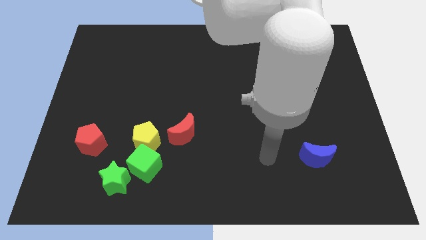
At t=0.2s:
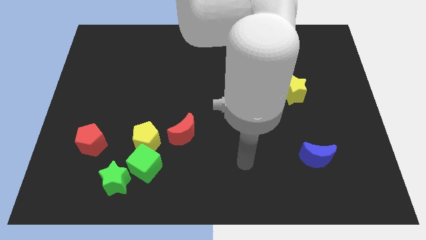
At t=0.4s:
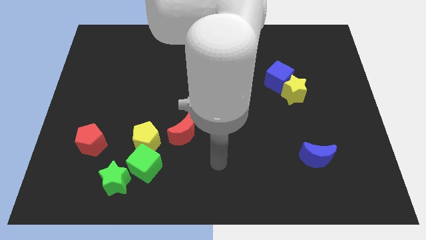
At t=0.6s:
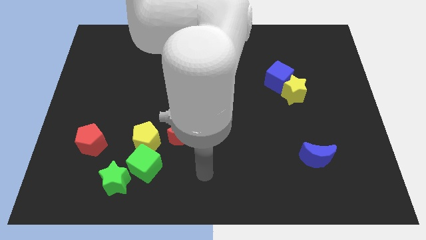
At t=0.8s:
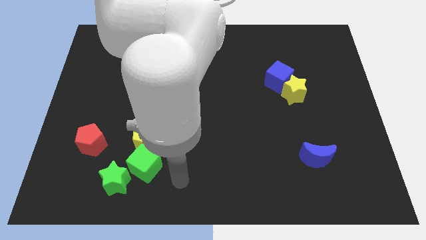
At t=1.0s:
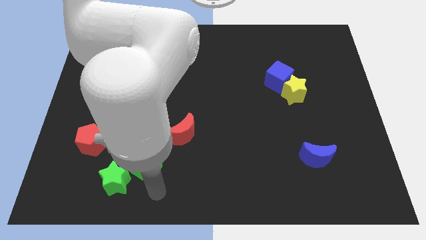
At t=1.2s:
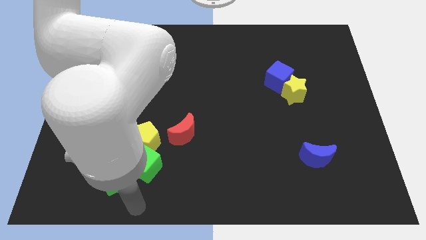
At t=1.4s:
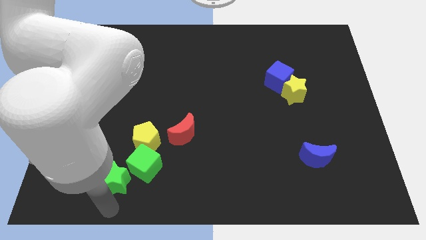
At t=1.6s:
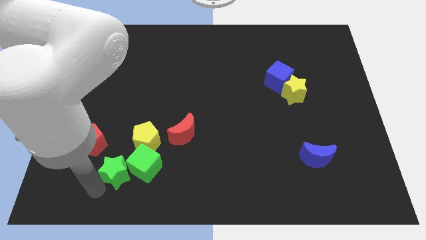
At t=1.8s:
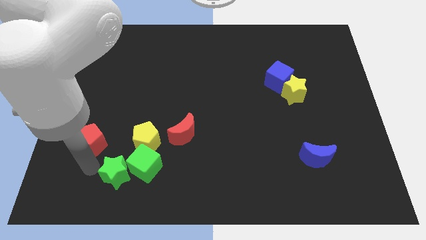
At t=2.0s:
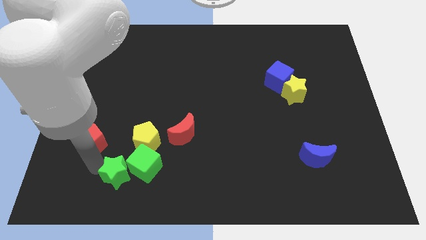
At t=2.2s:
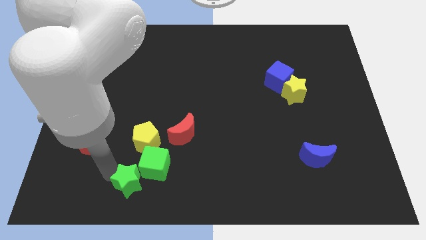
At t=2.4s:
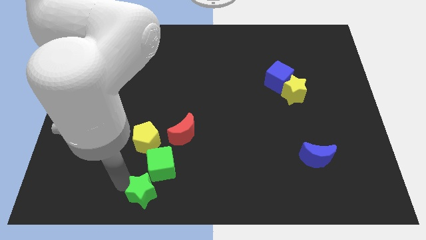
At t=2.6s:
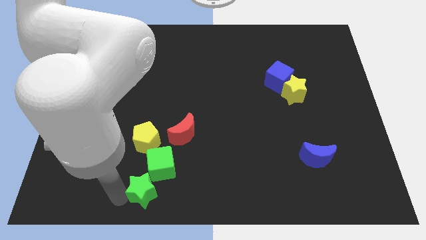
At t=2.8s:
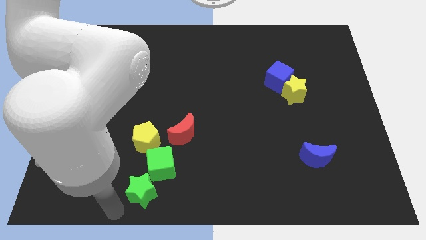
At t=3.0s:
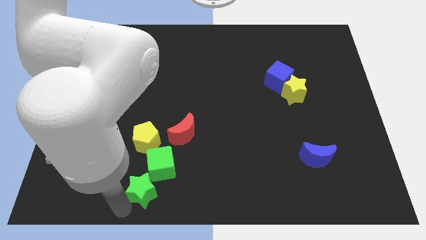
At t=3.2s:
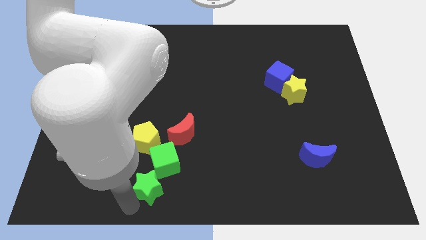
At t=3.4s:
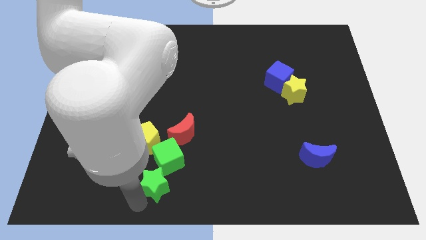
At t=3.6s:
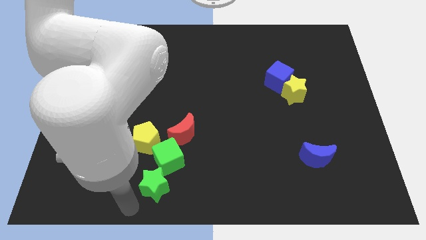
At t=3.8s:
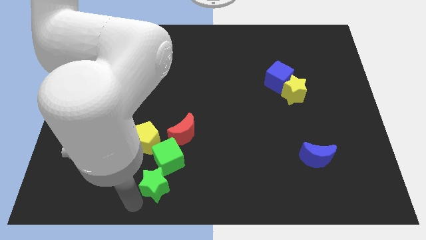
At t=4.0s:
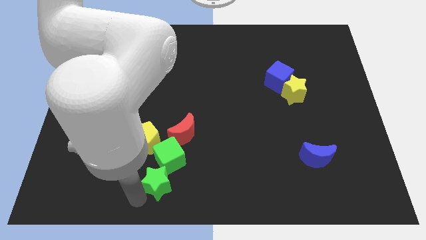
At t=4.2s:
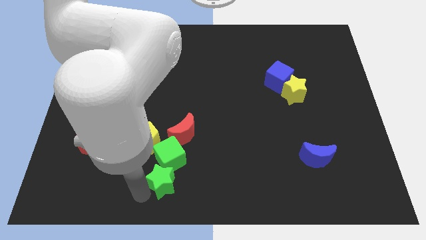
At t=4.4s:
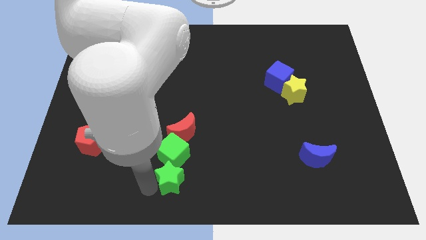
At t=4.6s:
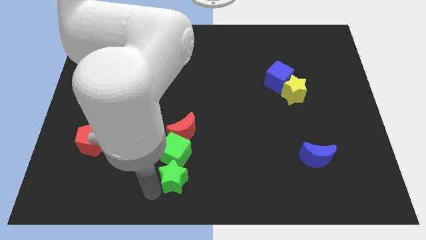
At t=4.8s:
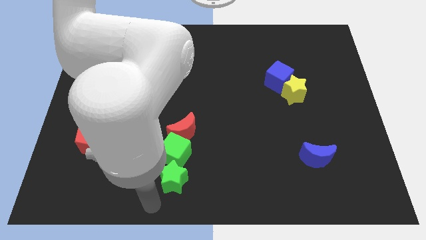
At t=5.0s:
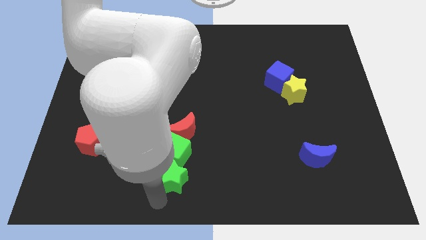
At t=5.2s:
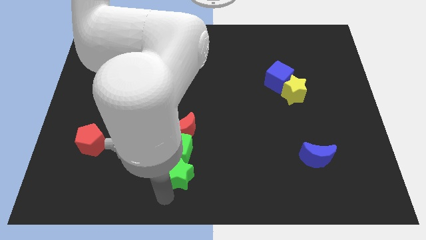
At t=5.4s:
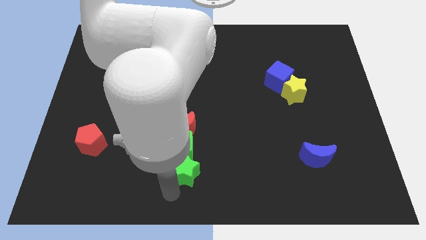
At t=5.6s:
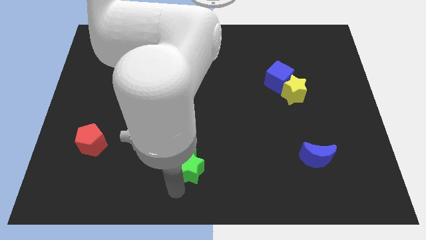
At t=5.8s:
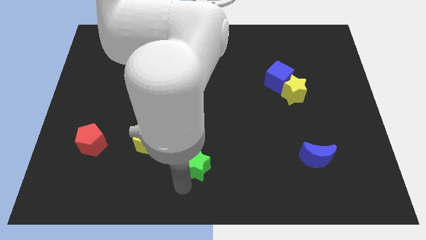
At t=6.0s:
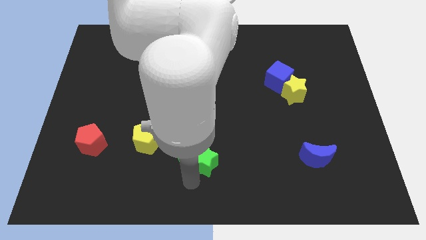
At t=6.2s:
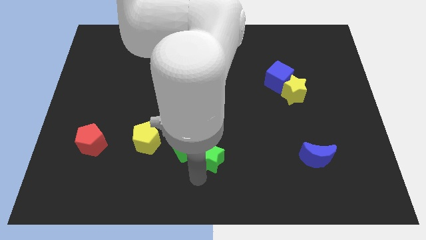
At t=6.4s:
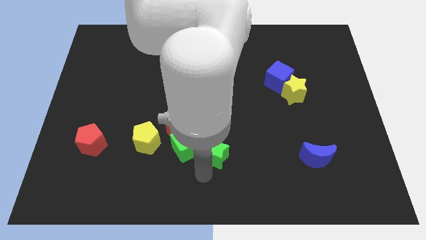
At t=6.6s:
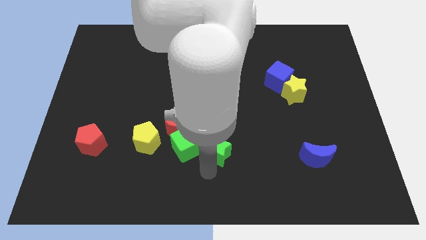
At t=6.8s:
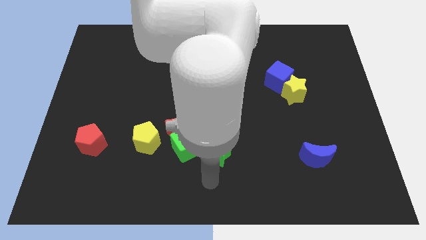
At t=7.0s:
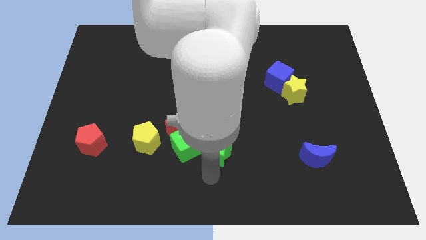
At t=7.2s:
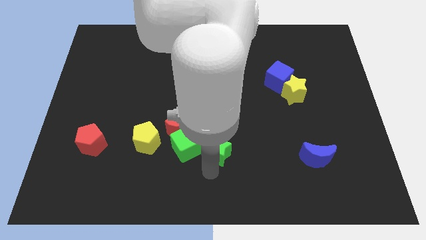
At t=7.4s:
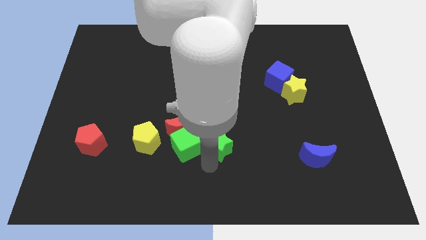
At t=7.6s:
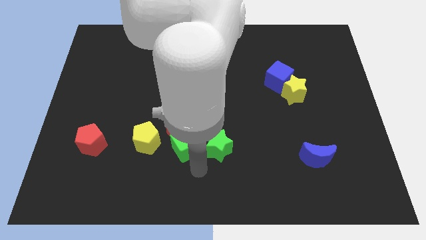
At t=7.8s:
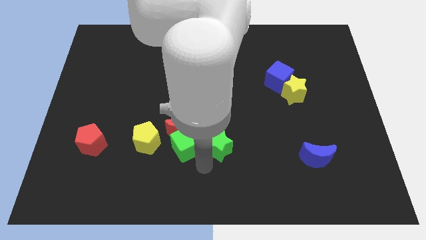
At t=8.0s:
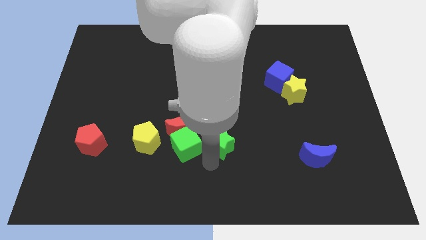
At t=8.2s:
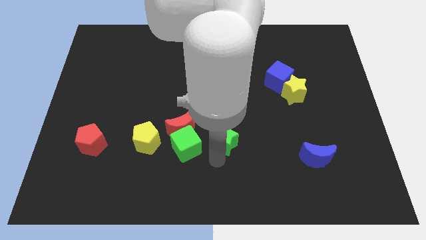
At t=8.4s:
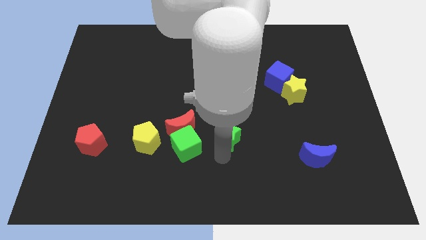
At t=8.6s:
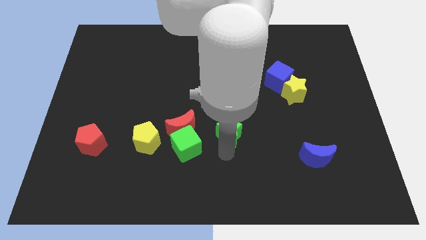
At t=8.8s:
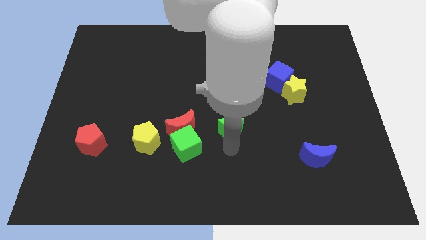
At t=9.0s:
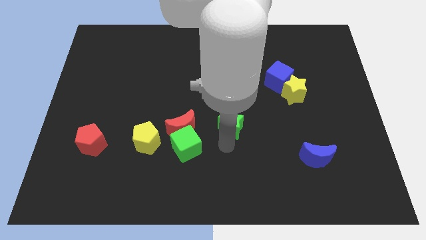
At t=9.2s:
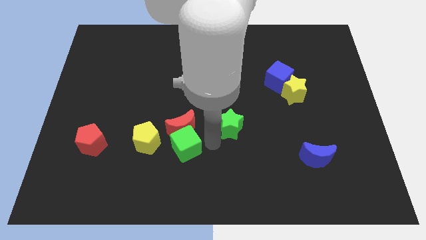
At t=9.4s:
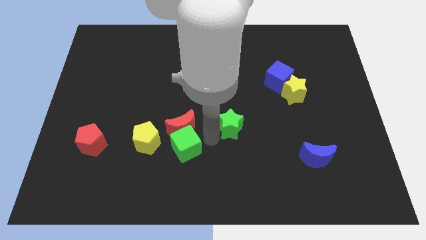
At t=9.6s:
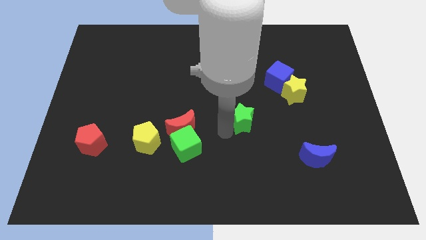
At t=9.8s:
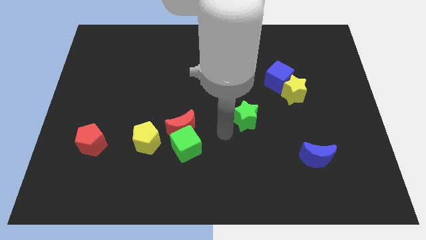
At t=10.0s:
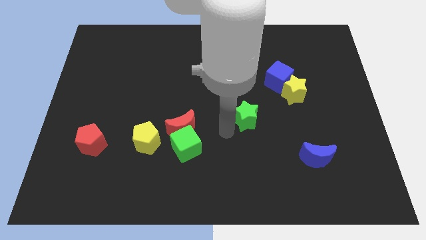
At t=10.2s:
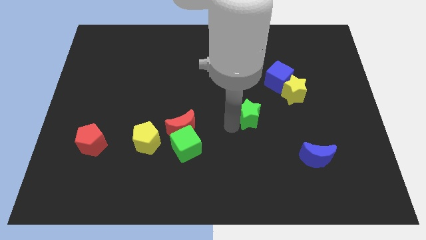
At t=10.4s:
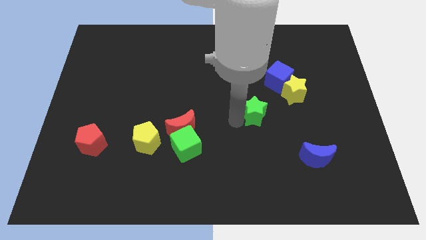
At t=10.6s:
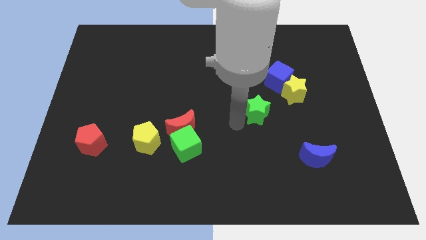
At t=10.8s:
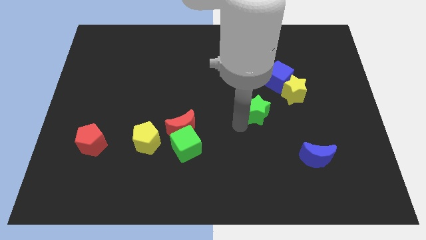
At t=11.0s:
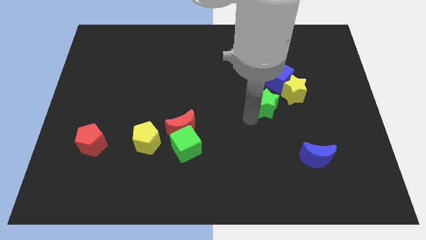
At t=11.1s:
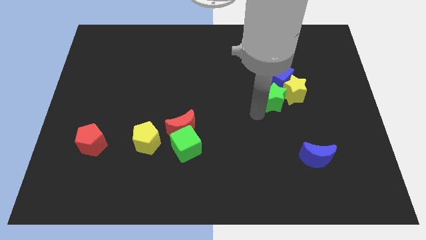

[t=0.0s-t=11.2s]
put the green star to the yellow star

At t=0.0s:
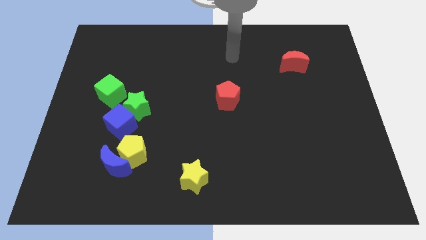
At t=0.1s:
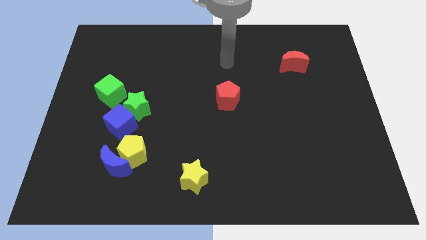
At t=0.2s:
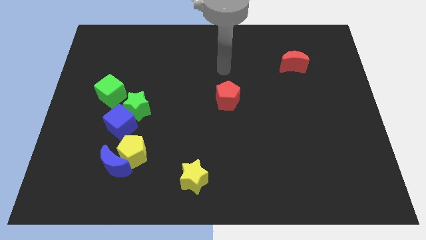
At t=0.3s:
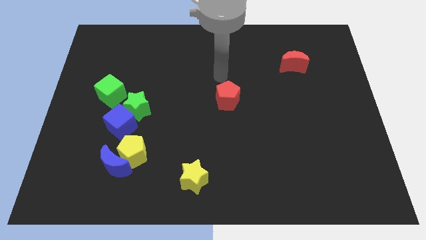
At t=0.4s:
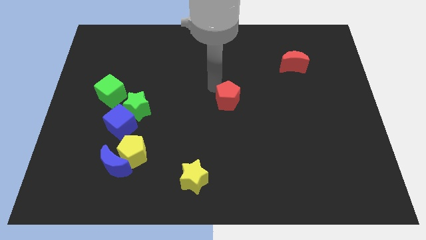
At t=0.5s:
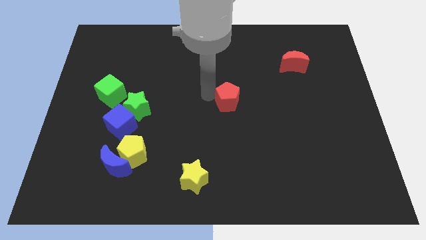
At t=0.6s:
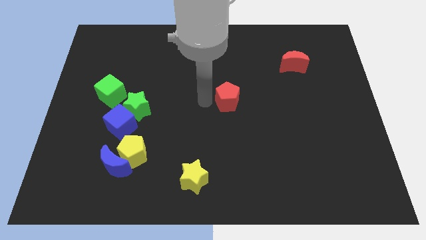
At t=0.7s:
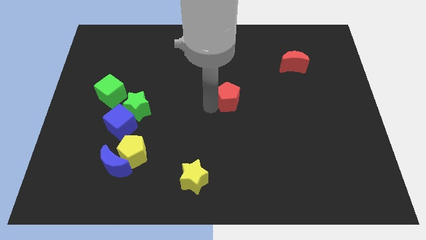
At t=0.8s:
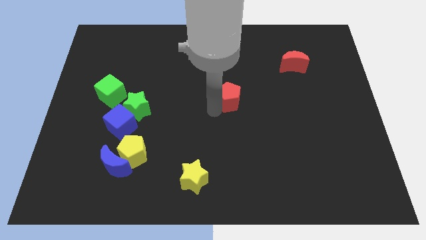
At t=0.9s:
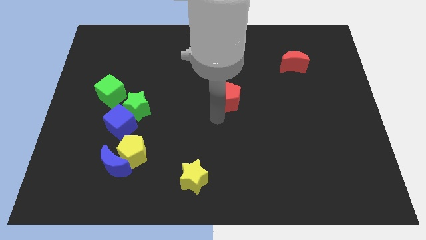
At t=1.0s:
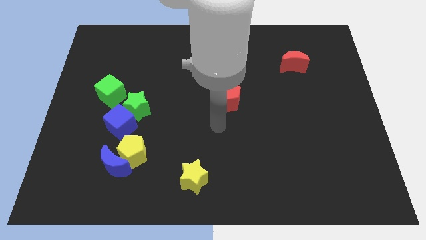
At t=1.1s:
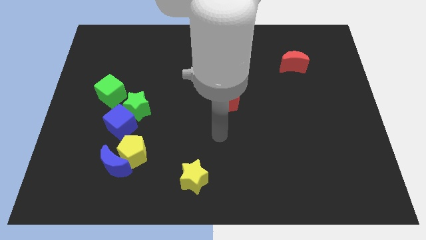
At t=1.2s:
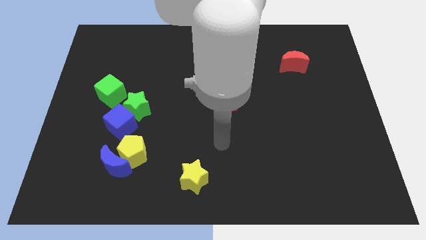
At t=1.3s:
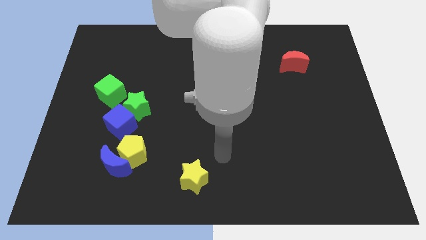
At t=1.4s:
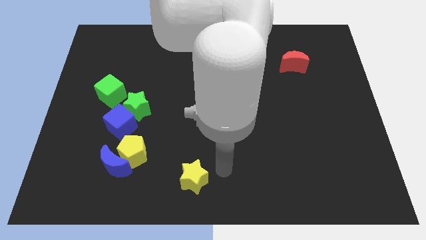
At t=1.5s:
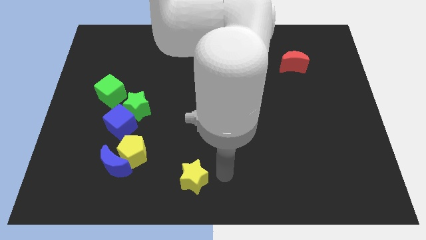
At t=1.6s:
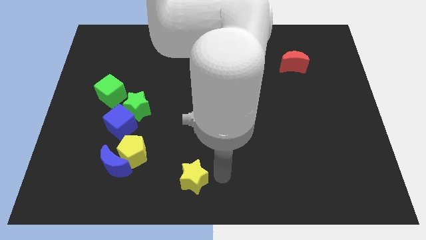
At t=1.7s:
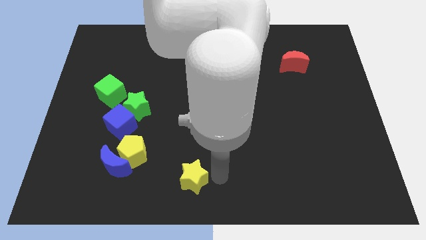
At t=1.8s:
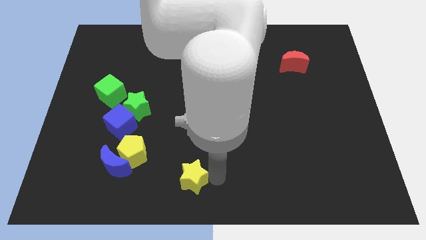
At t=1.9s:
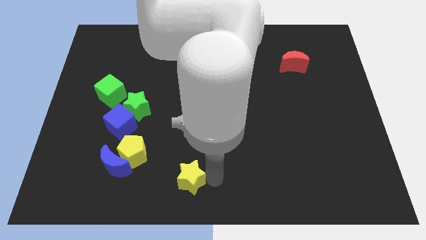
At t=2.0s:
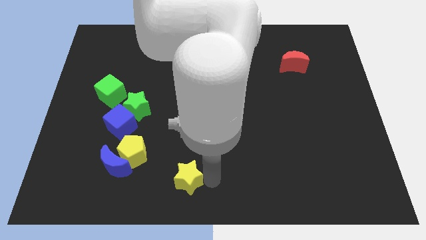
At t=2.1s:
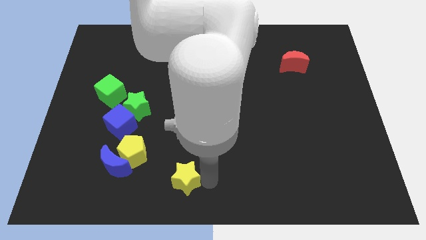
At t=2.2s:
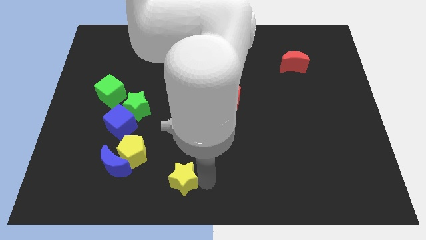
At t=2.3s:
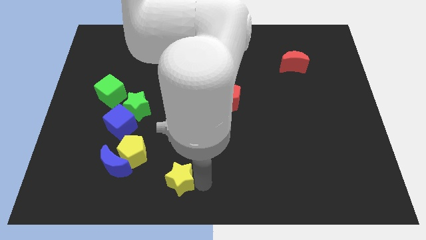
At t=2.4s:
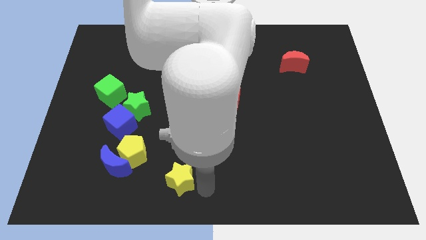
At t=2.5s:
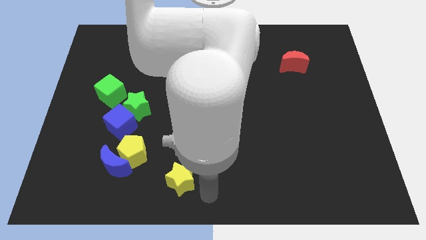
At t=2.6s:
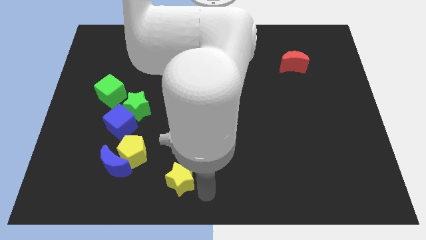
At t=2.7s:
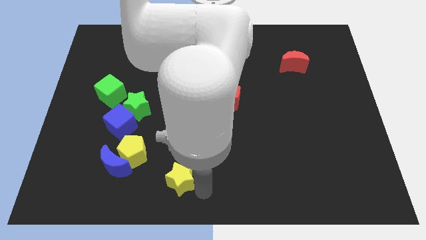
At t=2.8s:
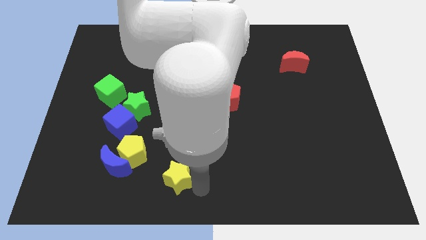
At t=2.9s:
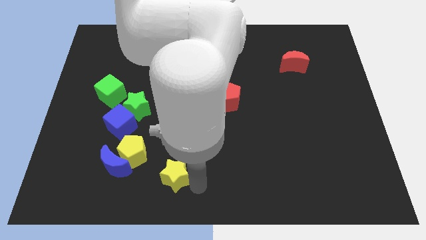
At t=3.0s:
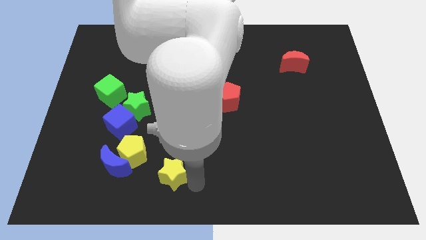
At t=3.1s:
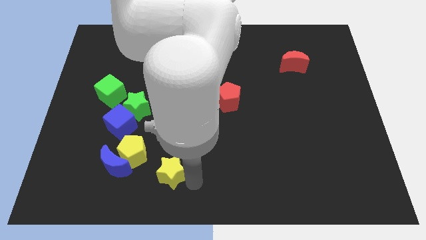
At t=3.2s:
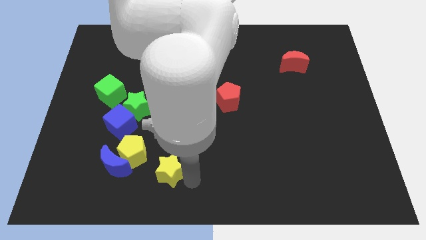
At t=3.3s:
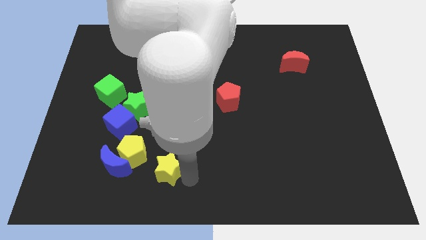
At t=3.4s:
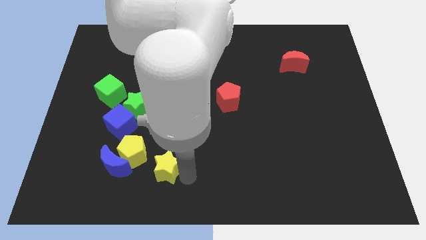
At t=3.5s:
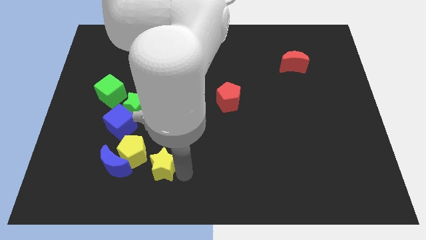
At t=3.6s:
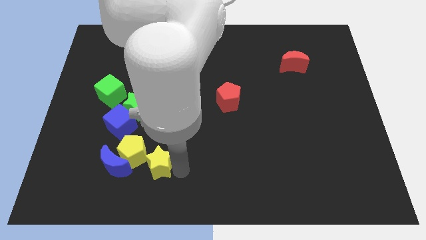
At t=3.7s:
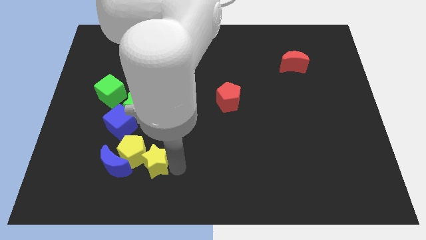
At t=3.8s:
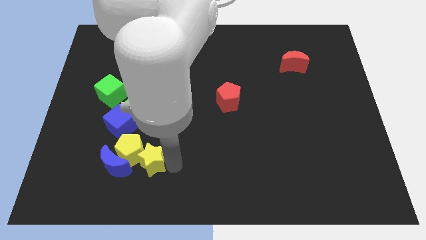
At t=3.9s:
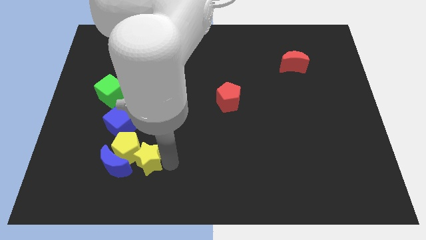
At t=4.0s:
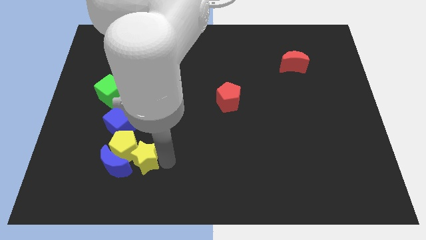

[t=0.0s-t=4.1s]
move the yellow star next to the blue moon
